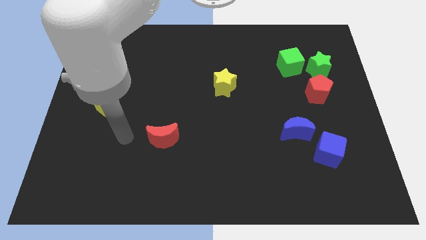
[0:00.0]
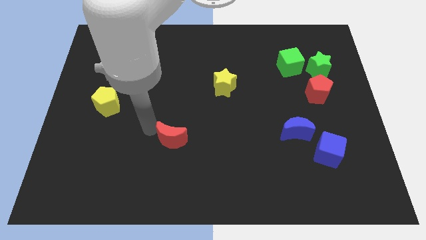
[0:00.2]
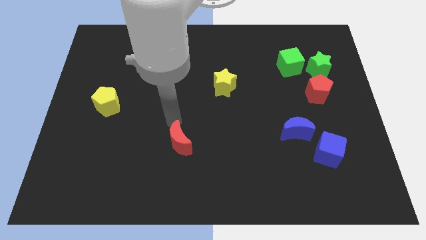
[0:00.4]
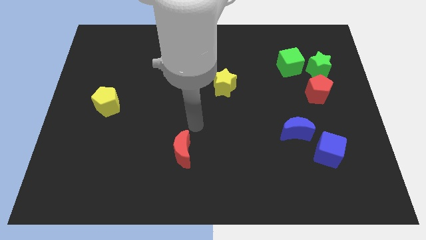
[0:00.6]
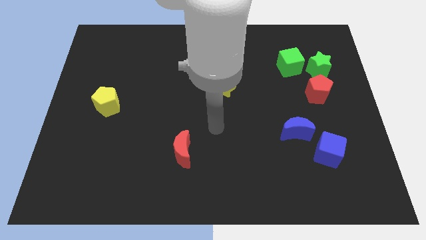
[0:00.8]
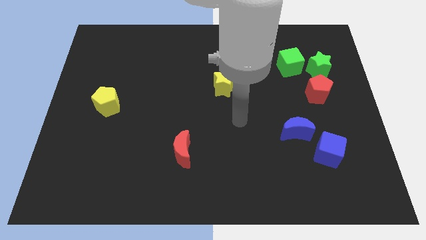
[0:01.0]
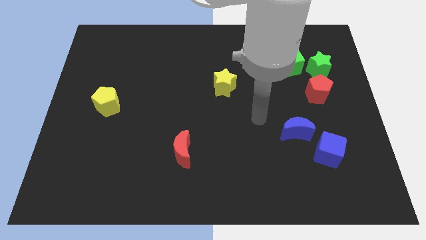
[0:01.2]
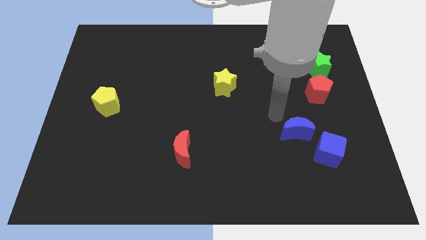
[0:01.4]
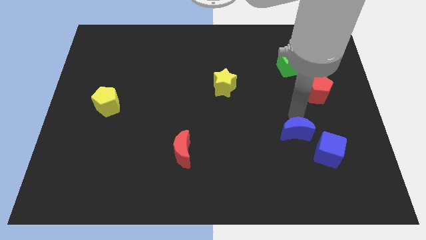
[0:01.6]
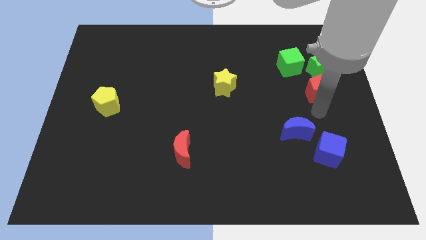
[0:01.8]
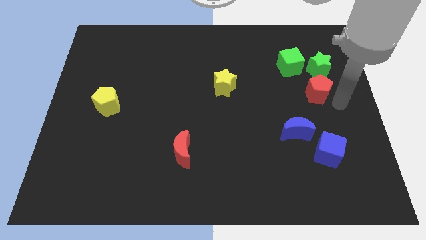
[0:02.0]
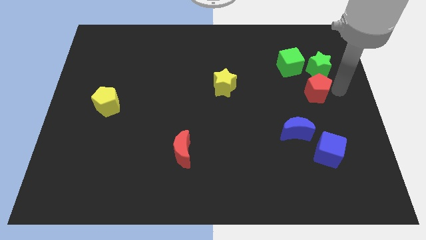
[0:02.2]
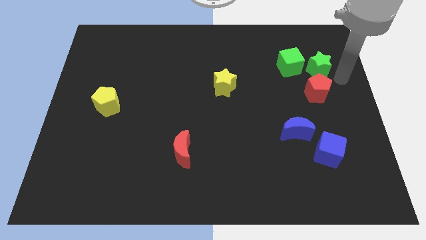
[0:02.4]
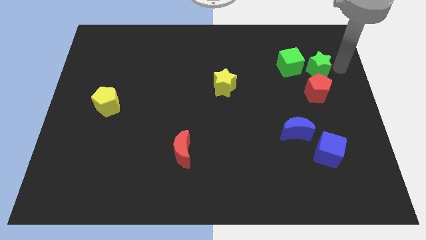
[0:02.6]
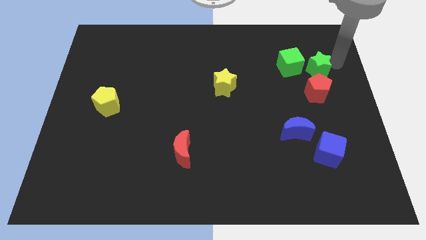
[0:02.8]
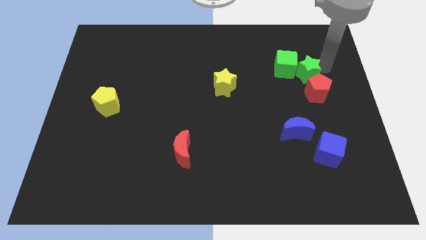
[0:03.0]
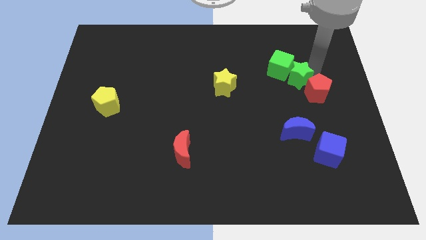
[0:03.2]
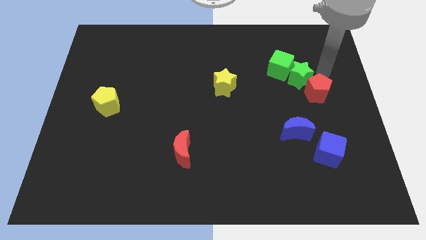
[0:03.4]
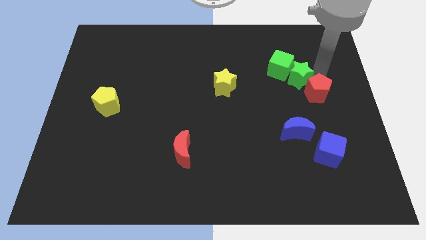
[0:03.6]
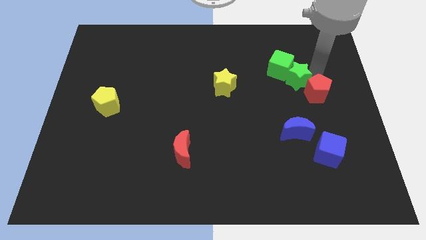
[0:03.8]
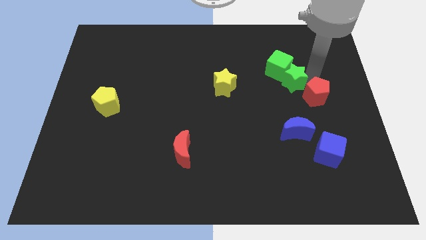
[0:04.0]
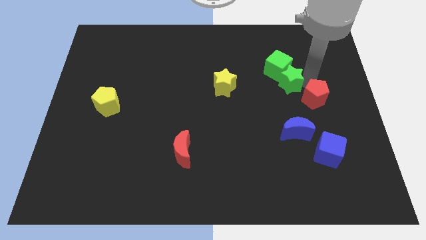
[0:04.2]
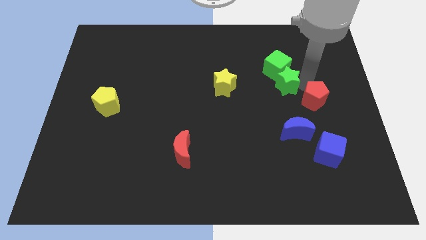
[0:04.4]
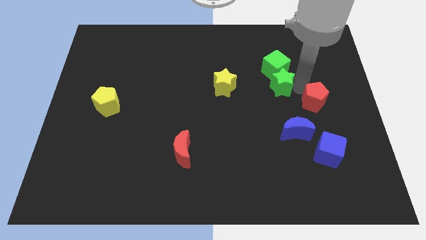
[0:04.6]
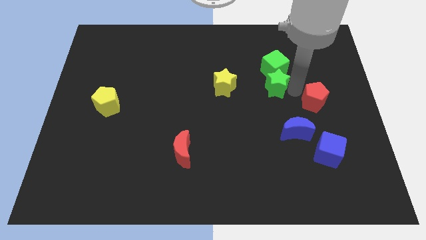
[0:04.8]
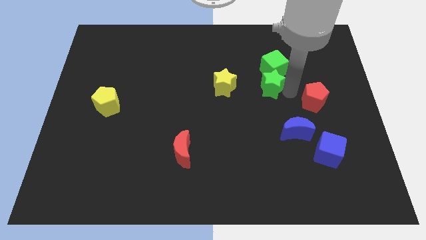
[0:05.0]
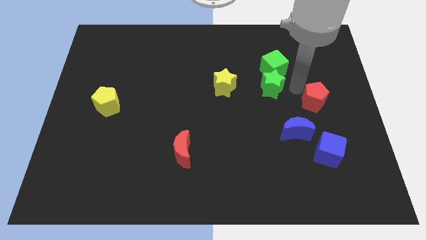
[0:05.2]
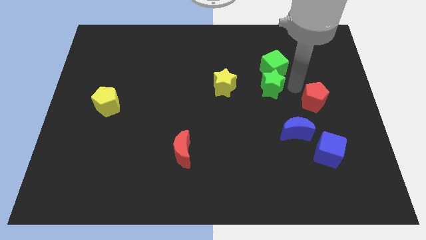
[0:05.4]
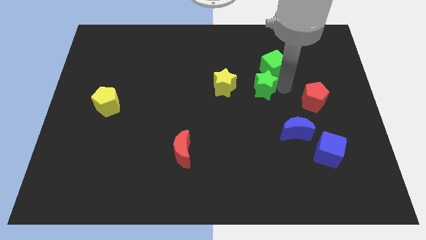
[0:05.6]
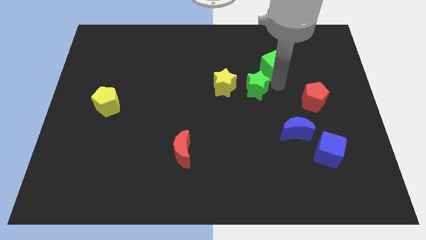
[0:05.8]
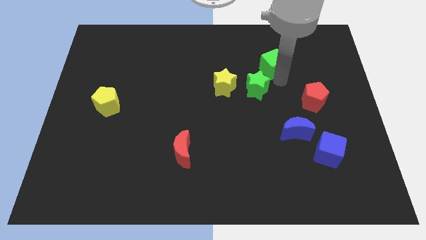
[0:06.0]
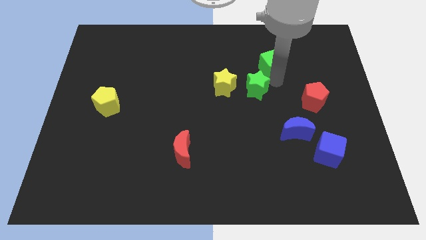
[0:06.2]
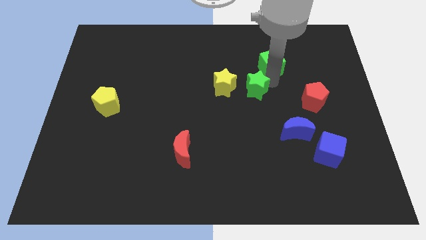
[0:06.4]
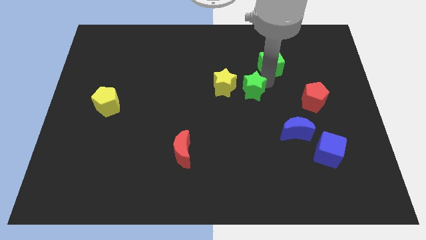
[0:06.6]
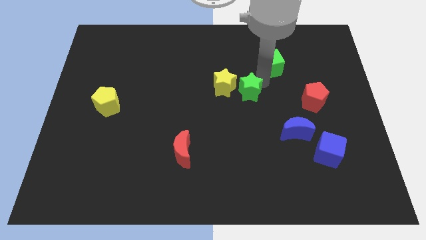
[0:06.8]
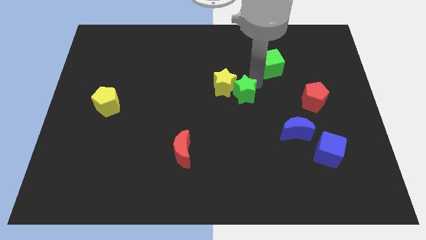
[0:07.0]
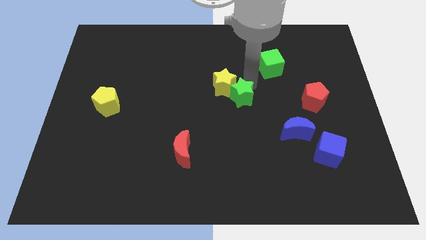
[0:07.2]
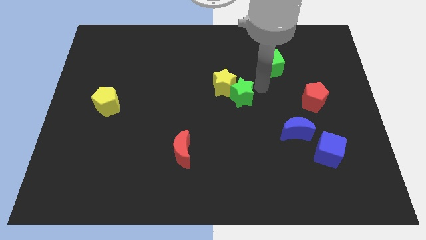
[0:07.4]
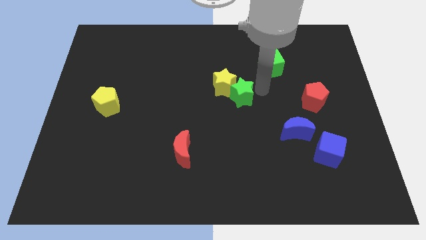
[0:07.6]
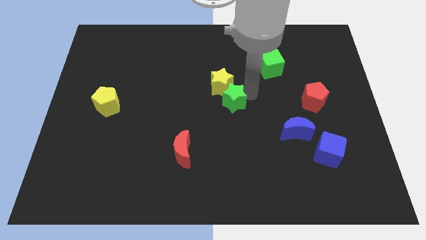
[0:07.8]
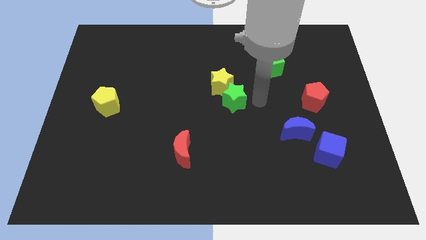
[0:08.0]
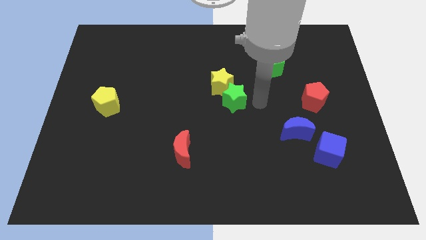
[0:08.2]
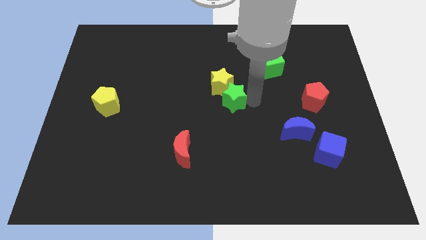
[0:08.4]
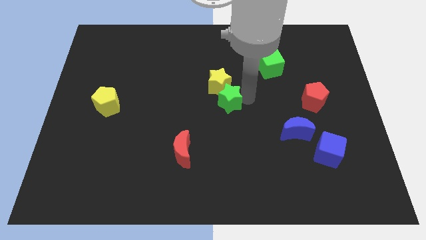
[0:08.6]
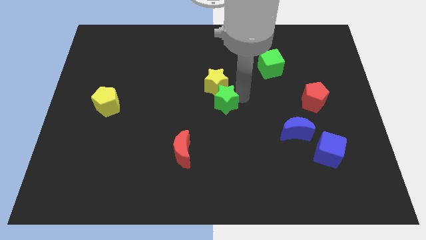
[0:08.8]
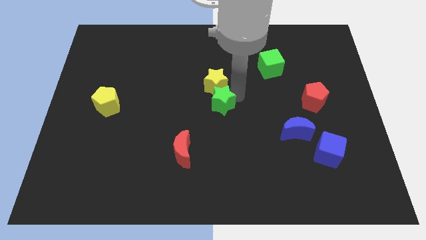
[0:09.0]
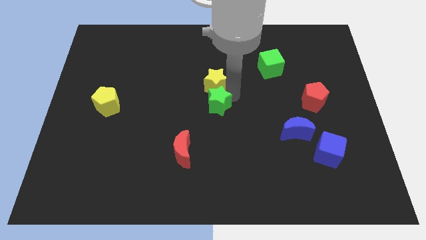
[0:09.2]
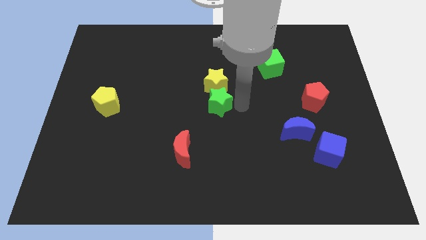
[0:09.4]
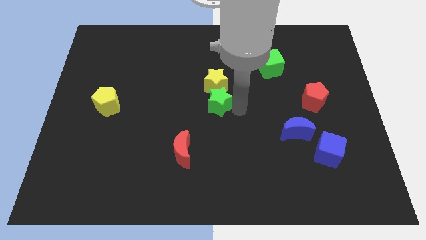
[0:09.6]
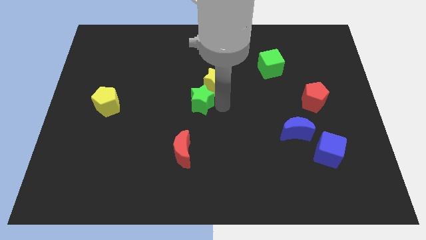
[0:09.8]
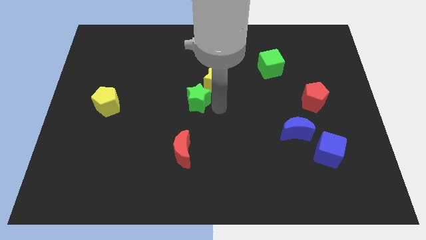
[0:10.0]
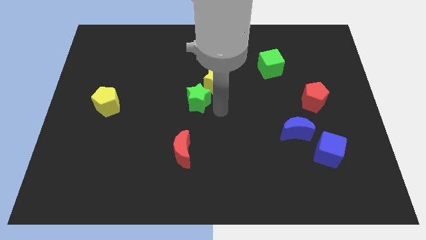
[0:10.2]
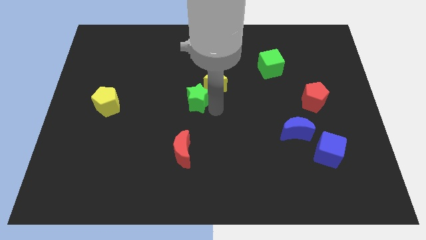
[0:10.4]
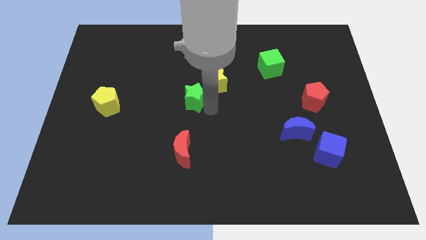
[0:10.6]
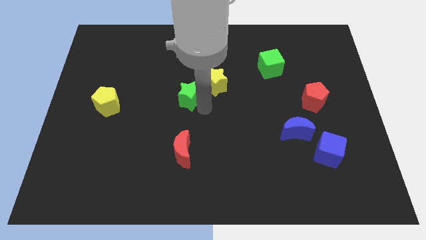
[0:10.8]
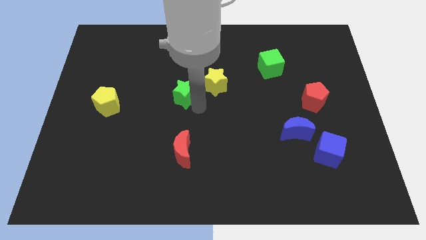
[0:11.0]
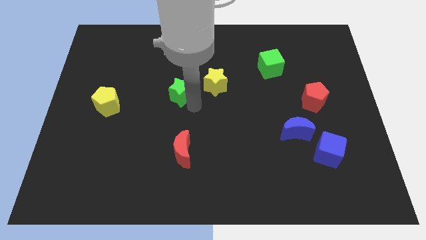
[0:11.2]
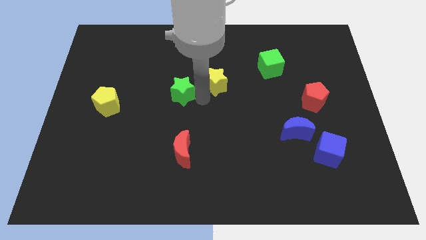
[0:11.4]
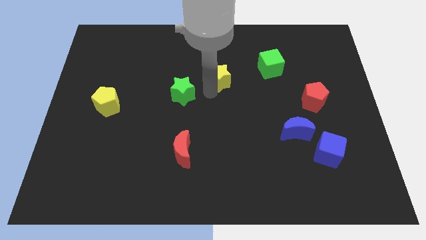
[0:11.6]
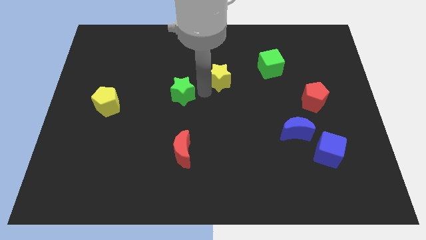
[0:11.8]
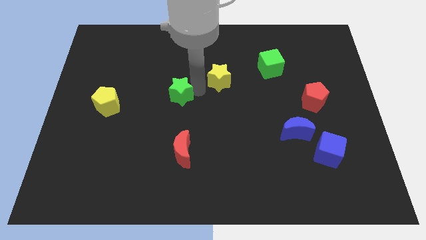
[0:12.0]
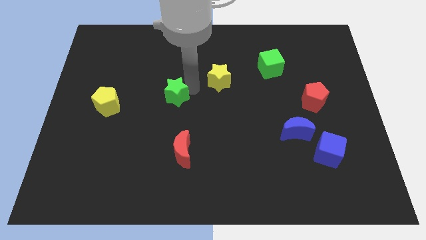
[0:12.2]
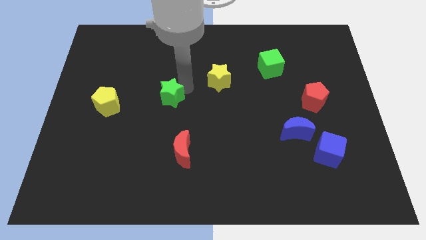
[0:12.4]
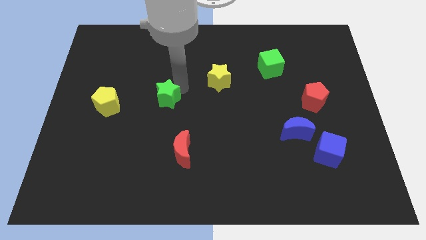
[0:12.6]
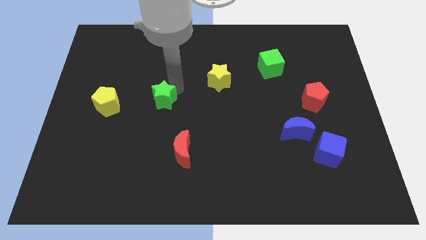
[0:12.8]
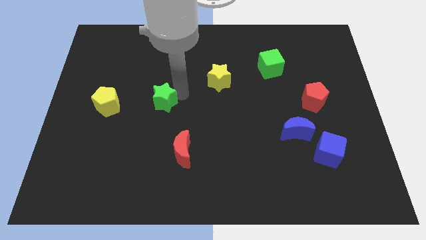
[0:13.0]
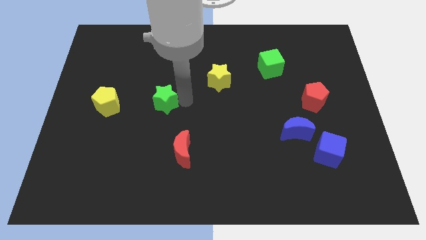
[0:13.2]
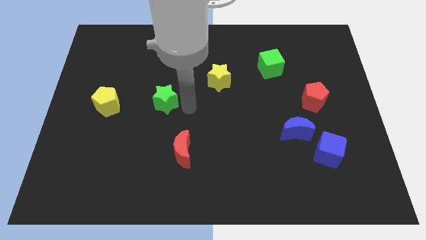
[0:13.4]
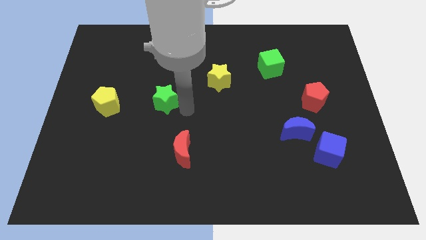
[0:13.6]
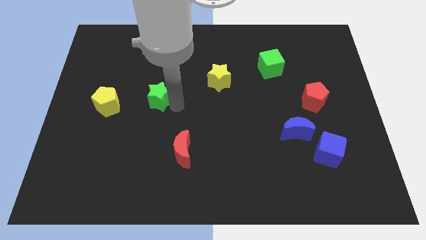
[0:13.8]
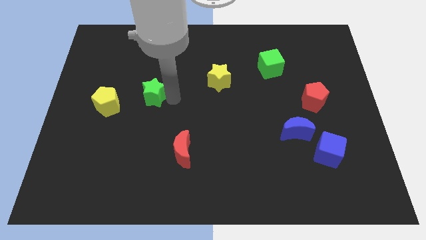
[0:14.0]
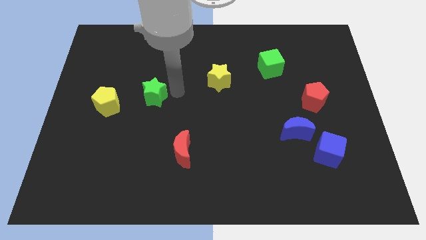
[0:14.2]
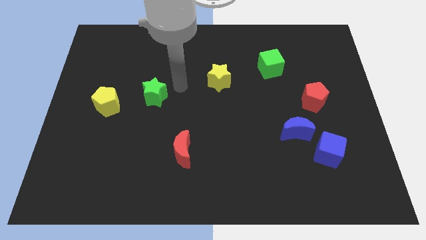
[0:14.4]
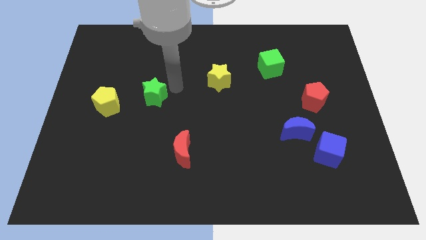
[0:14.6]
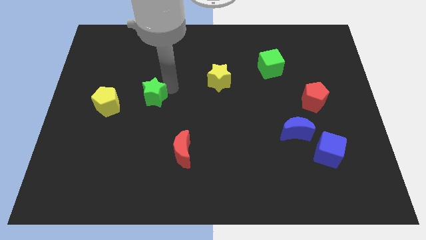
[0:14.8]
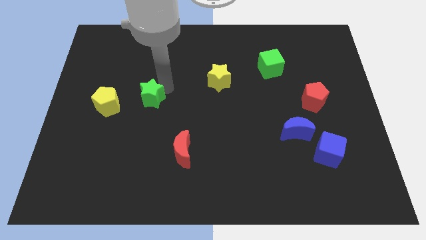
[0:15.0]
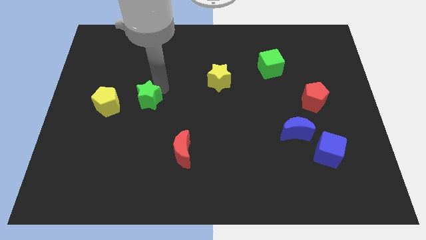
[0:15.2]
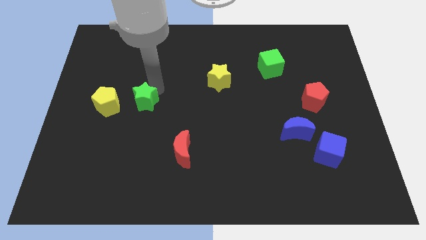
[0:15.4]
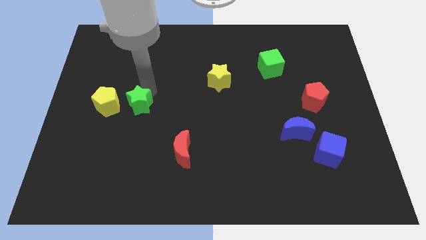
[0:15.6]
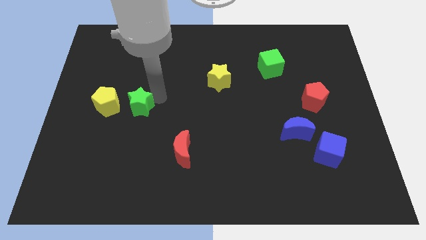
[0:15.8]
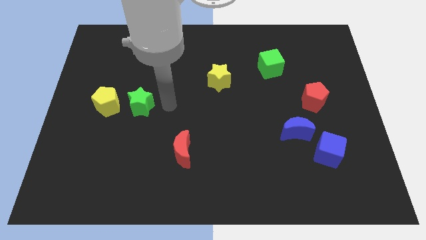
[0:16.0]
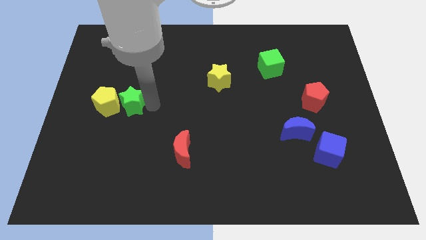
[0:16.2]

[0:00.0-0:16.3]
put the green star next to the yellow pentagon
